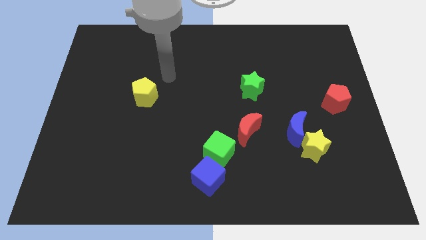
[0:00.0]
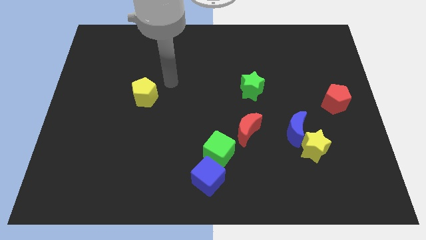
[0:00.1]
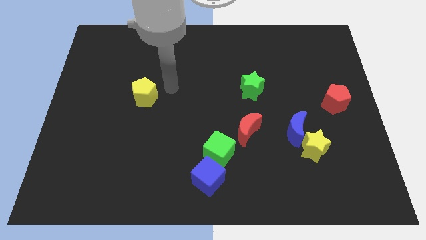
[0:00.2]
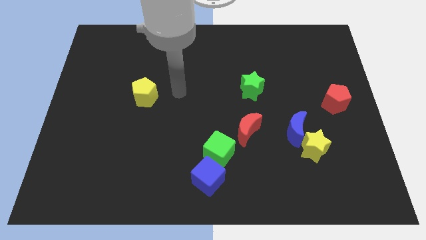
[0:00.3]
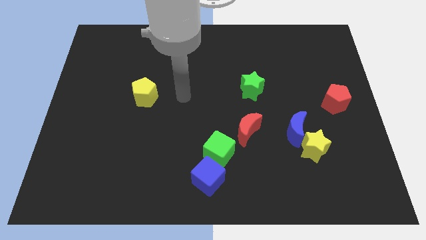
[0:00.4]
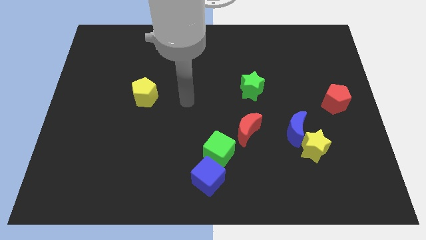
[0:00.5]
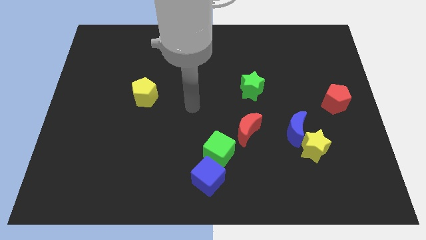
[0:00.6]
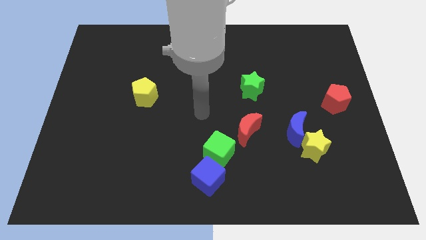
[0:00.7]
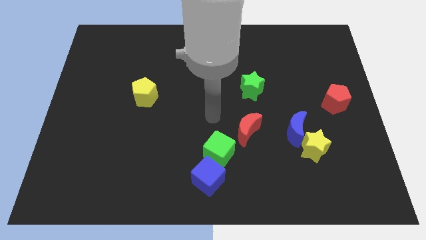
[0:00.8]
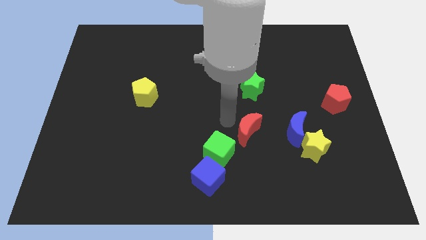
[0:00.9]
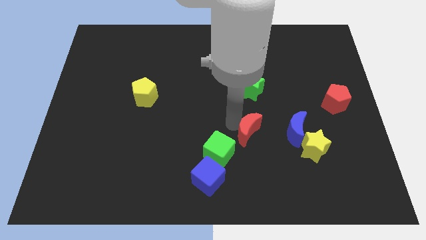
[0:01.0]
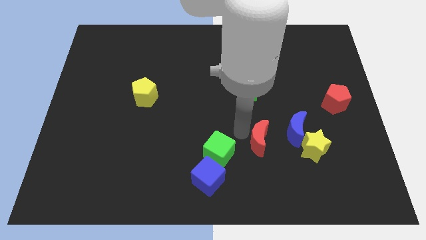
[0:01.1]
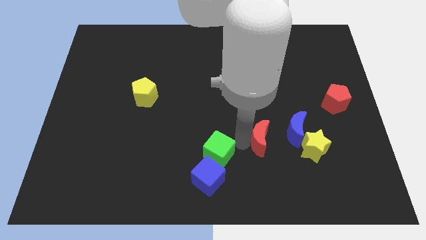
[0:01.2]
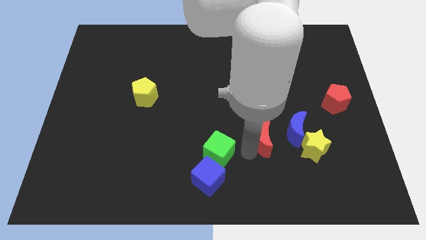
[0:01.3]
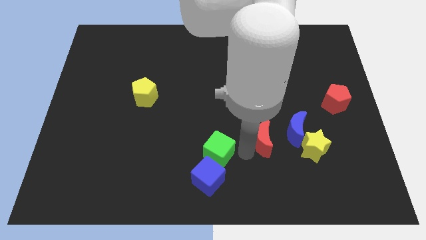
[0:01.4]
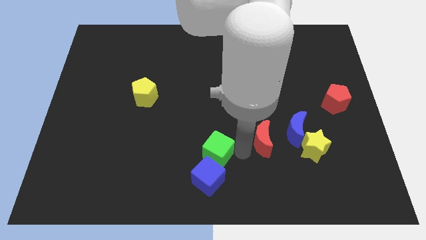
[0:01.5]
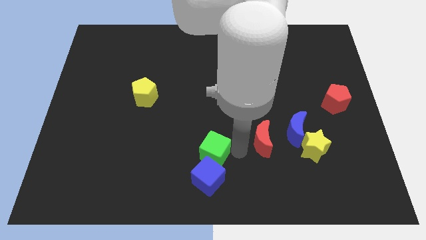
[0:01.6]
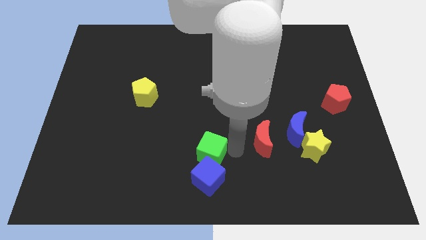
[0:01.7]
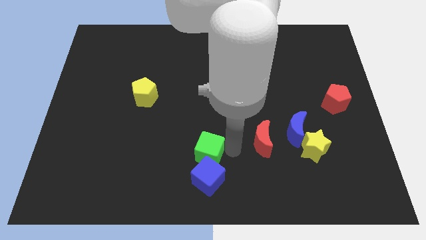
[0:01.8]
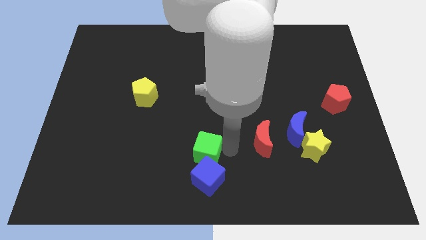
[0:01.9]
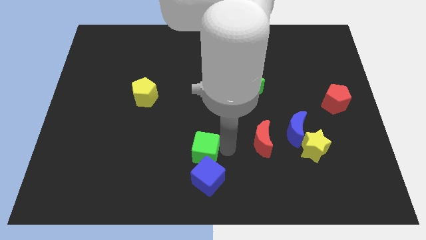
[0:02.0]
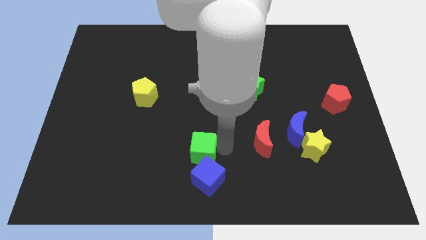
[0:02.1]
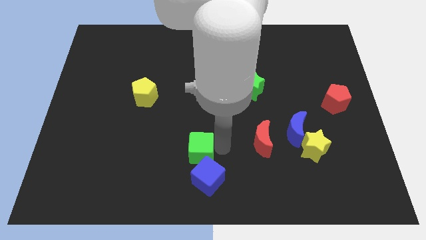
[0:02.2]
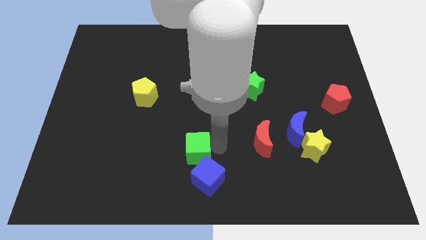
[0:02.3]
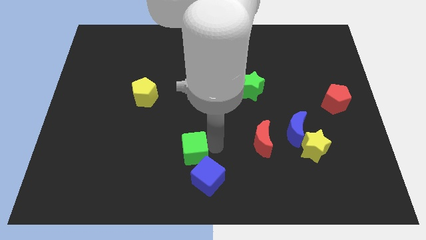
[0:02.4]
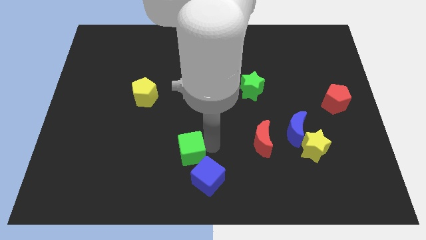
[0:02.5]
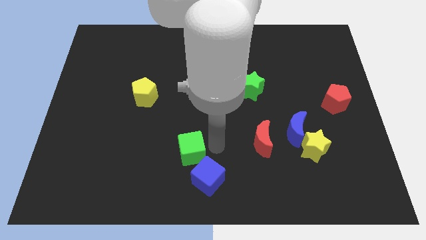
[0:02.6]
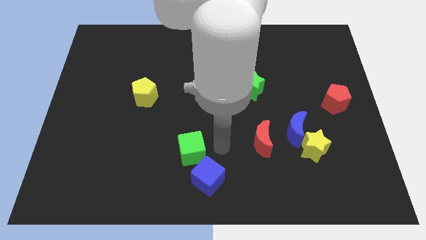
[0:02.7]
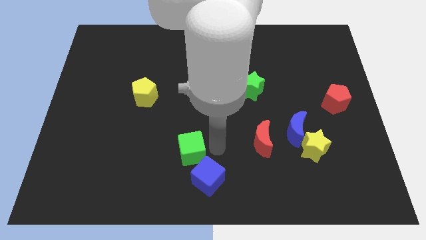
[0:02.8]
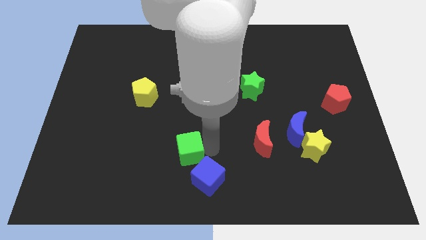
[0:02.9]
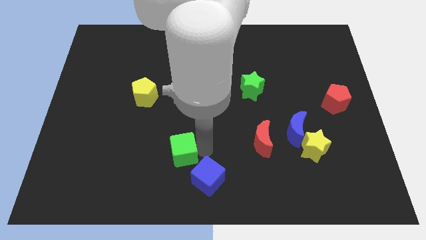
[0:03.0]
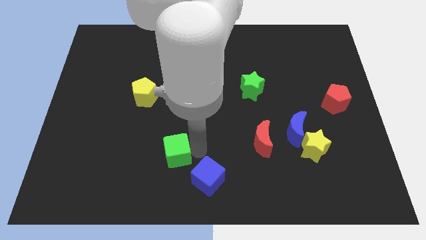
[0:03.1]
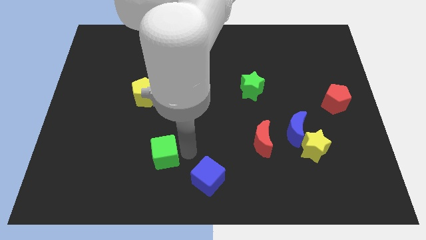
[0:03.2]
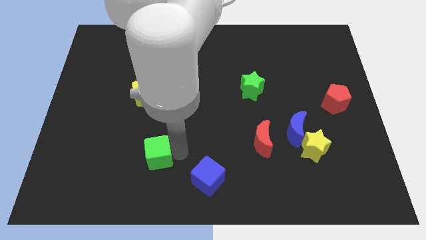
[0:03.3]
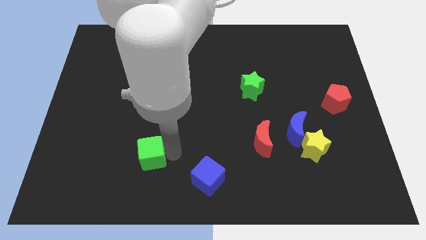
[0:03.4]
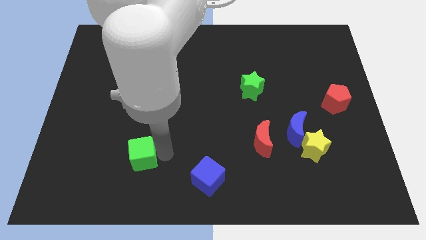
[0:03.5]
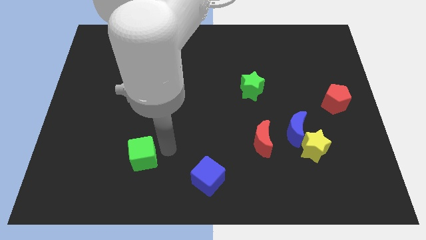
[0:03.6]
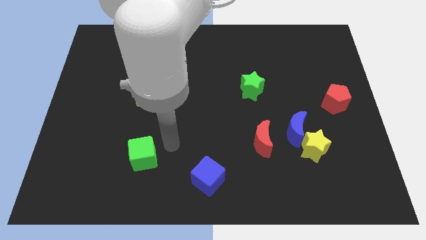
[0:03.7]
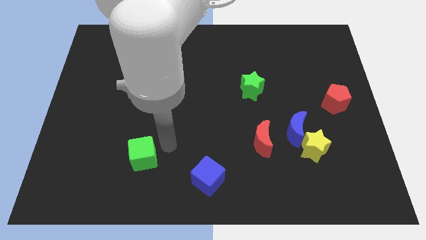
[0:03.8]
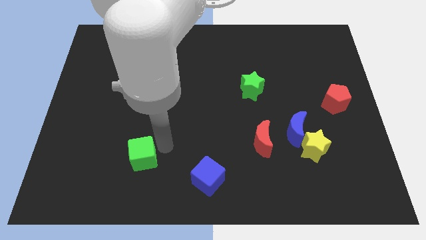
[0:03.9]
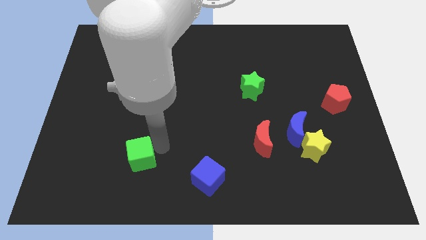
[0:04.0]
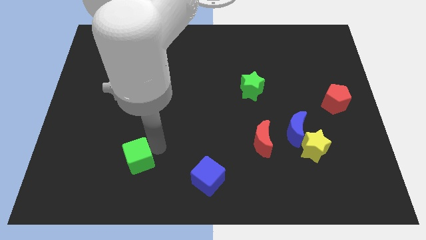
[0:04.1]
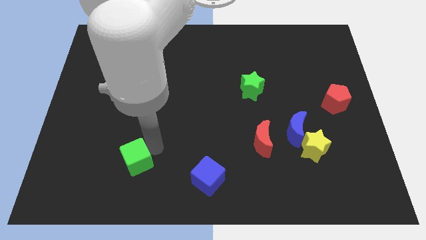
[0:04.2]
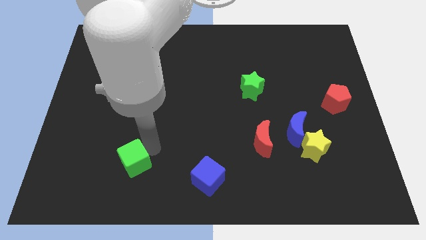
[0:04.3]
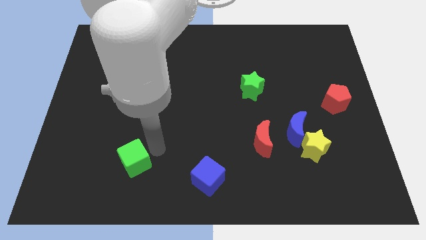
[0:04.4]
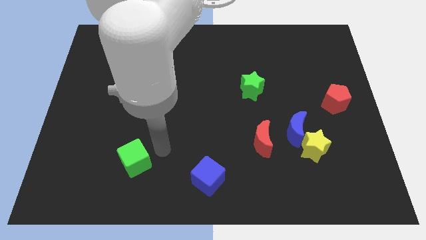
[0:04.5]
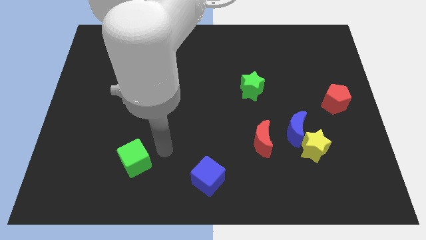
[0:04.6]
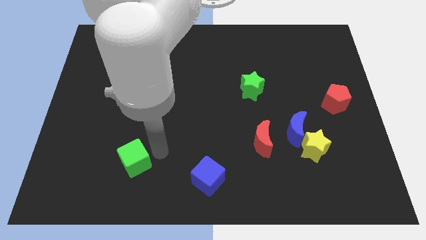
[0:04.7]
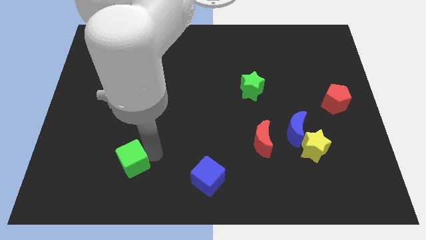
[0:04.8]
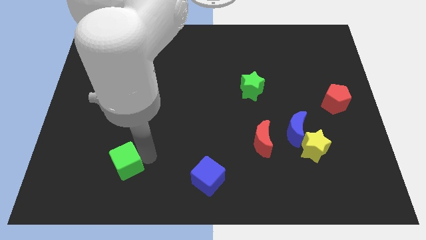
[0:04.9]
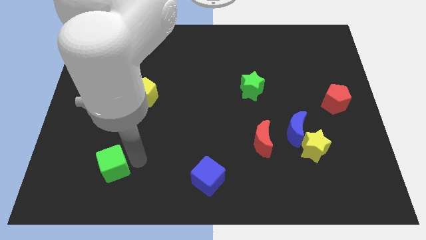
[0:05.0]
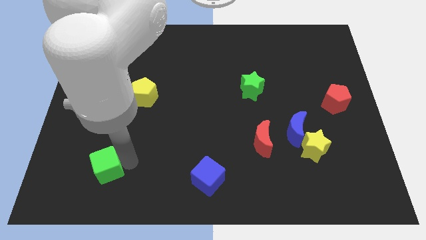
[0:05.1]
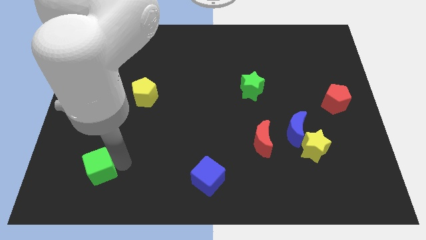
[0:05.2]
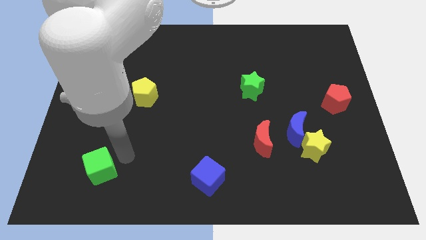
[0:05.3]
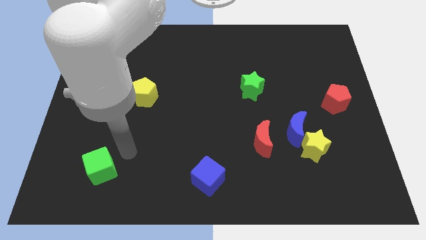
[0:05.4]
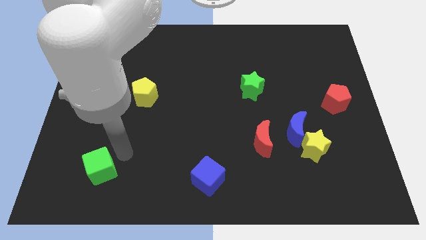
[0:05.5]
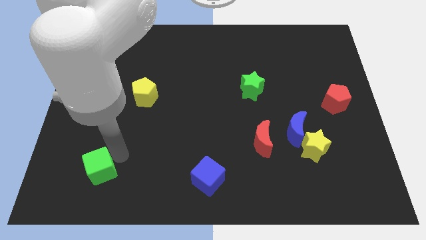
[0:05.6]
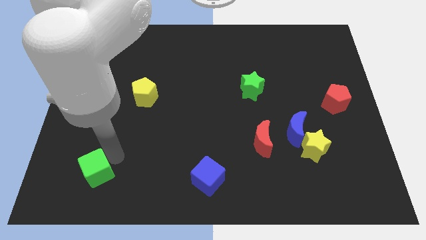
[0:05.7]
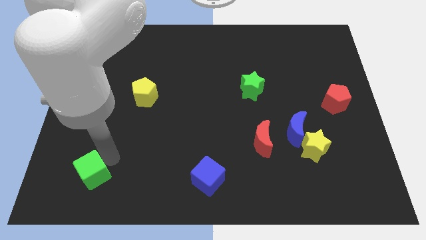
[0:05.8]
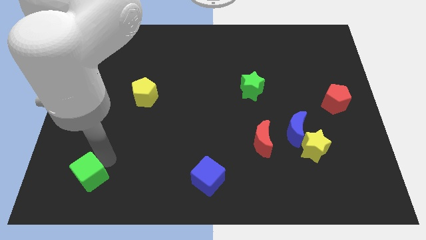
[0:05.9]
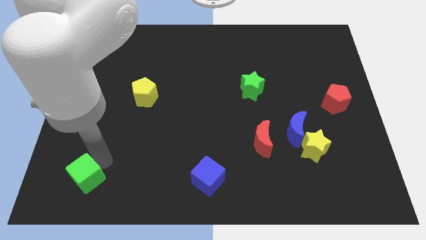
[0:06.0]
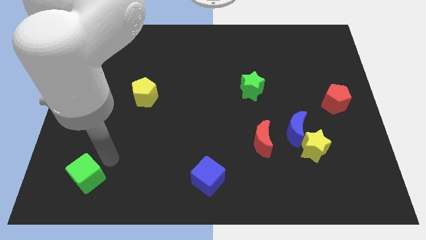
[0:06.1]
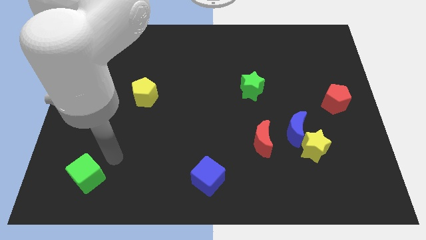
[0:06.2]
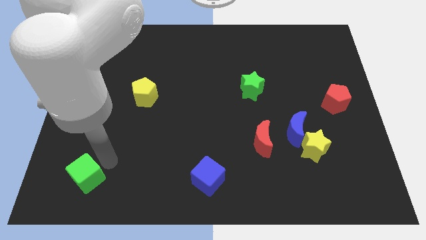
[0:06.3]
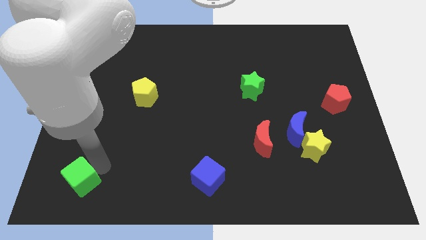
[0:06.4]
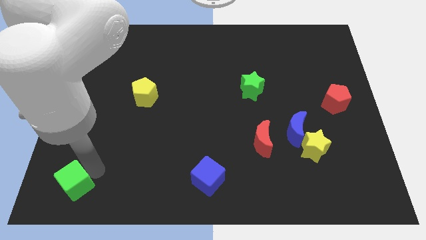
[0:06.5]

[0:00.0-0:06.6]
move the green cube to the bottom left corner

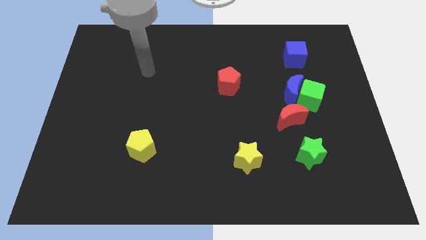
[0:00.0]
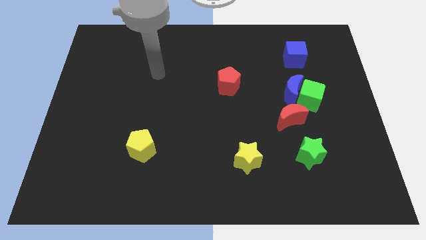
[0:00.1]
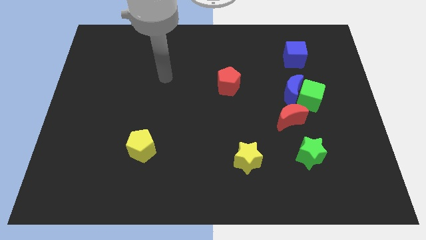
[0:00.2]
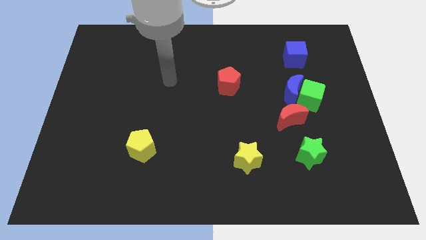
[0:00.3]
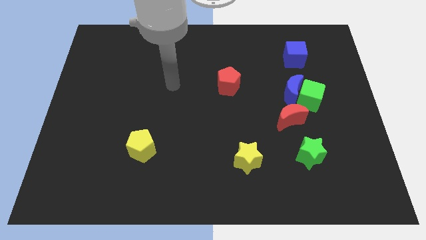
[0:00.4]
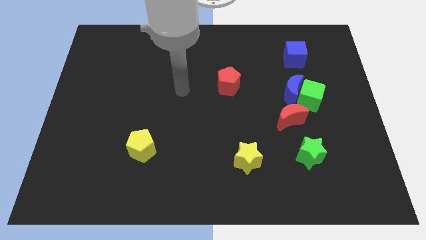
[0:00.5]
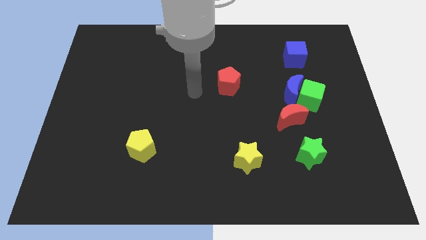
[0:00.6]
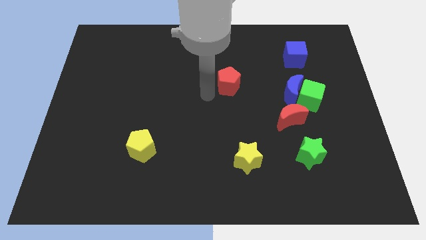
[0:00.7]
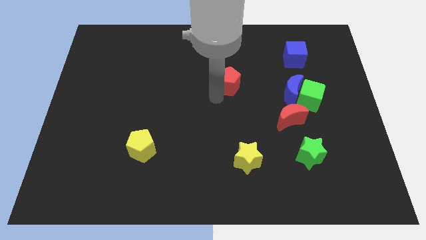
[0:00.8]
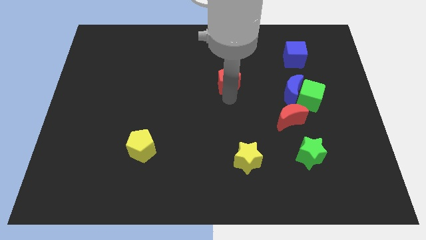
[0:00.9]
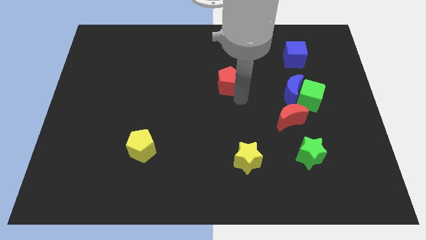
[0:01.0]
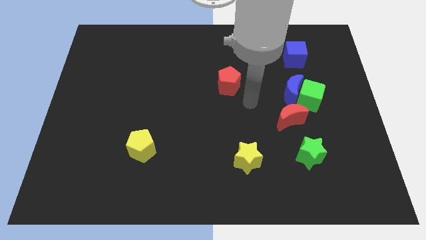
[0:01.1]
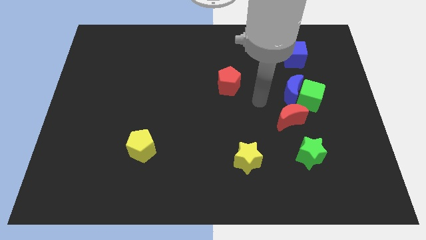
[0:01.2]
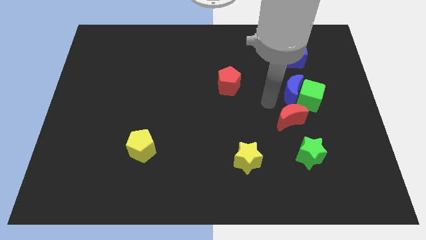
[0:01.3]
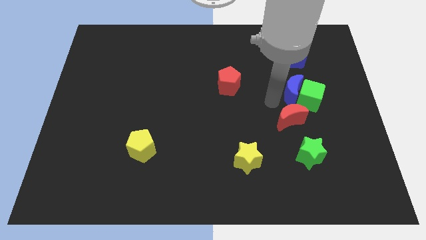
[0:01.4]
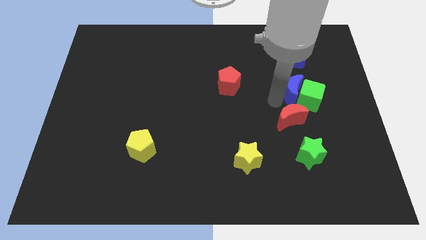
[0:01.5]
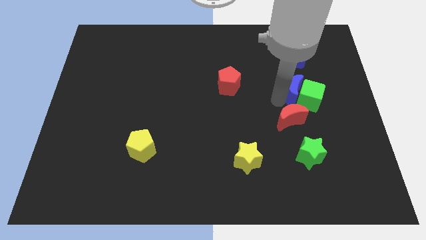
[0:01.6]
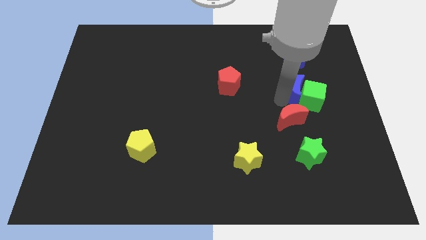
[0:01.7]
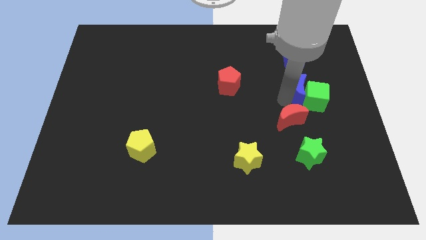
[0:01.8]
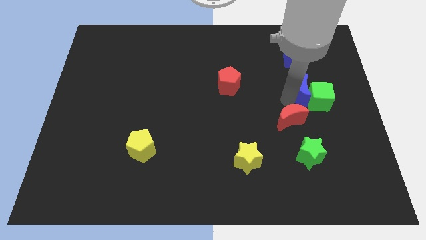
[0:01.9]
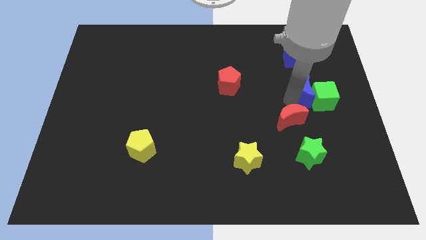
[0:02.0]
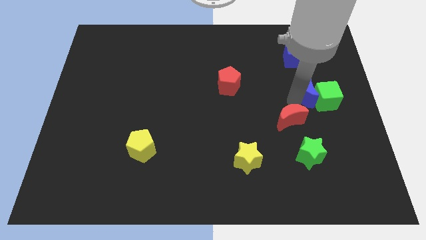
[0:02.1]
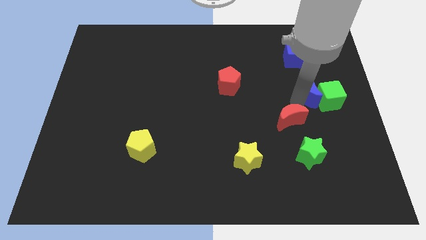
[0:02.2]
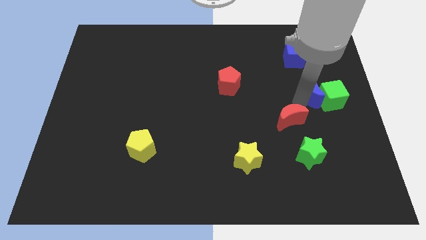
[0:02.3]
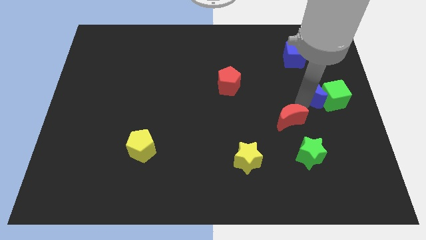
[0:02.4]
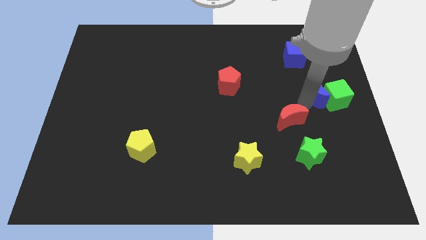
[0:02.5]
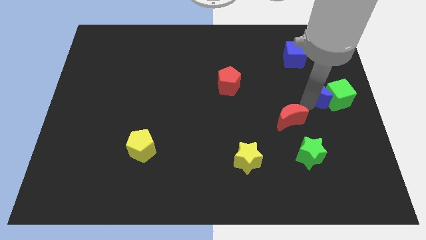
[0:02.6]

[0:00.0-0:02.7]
put the blue moon to the right side of the board
